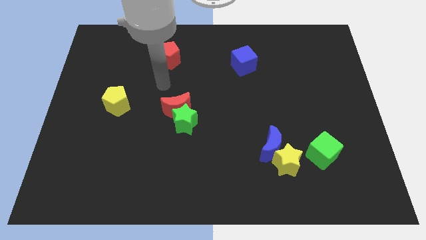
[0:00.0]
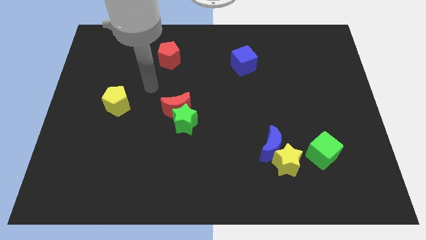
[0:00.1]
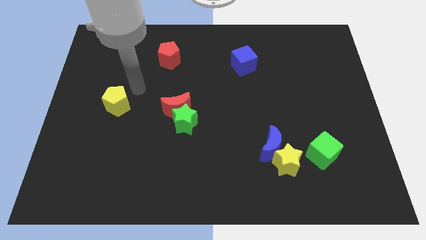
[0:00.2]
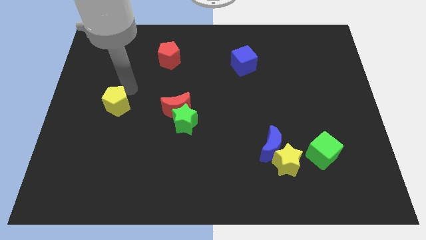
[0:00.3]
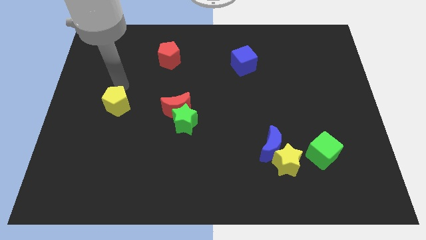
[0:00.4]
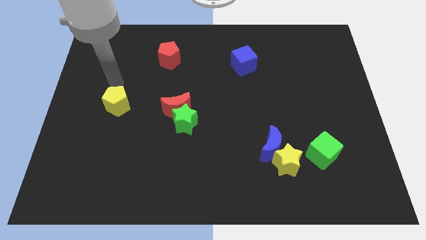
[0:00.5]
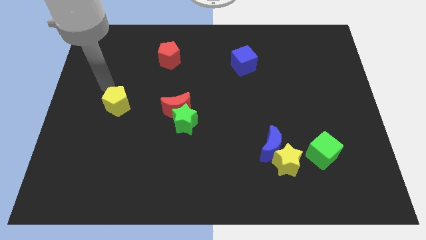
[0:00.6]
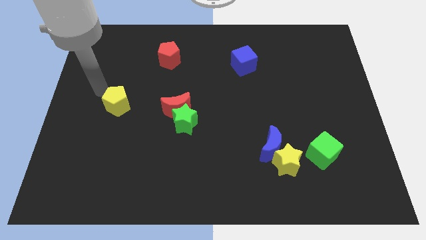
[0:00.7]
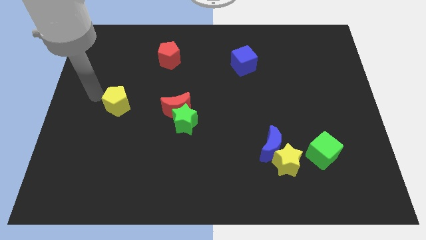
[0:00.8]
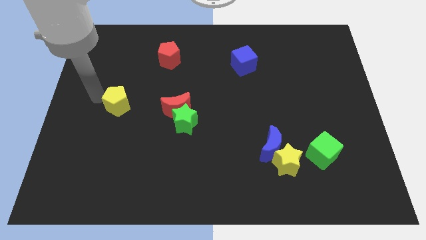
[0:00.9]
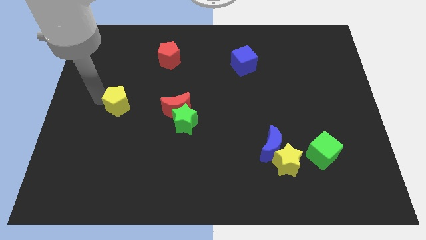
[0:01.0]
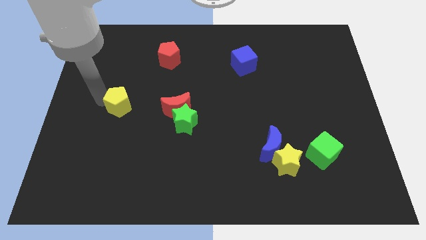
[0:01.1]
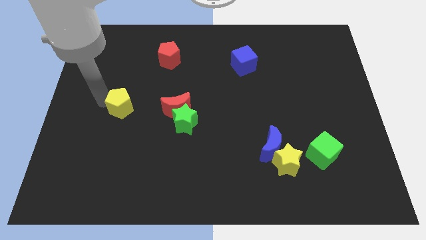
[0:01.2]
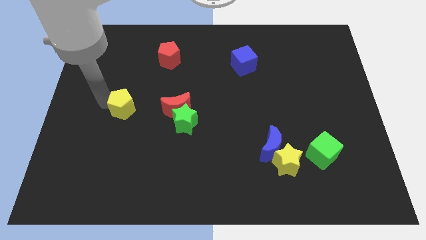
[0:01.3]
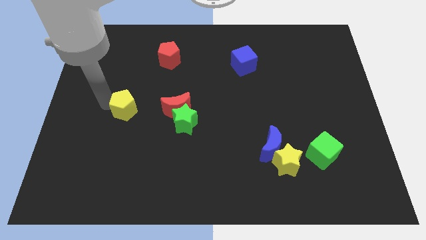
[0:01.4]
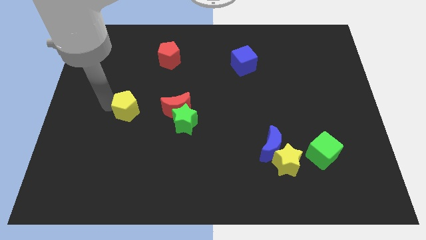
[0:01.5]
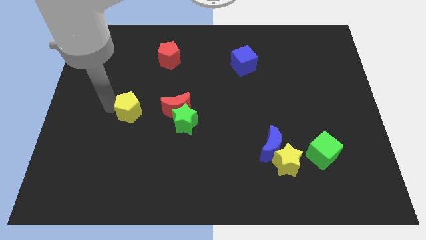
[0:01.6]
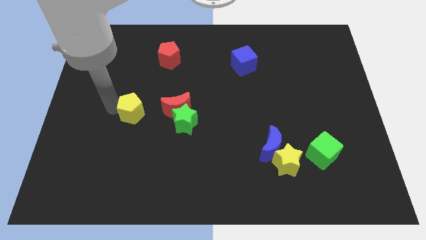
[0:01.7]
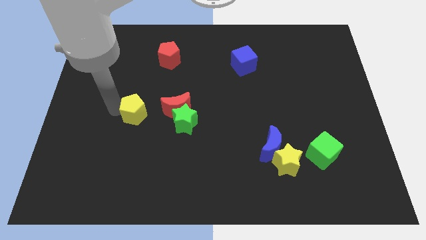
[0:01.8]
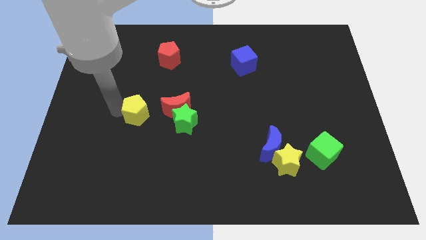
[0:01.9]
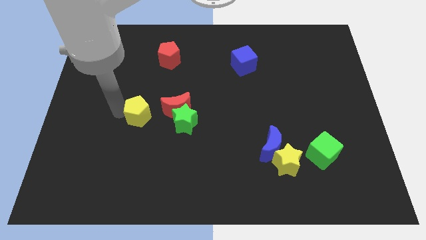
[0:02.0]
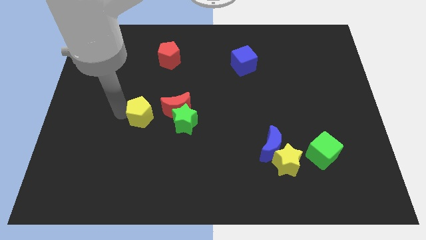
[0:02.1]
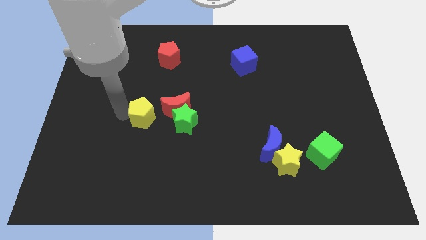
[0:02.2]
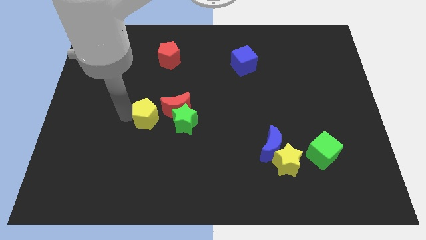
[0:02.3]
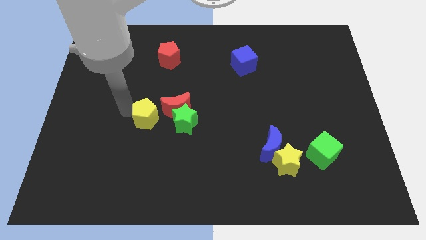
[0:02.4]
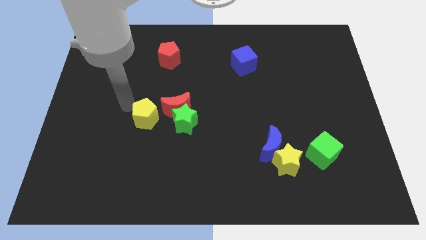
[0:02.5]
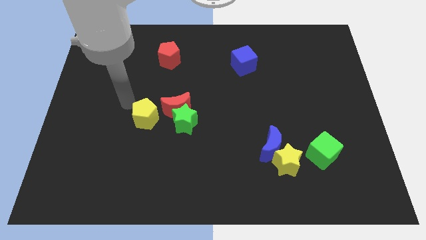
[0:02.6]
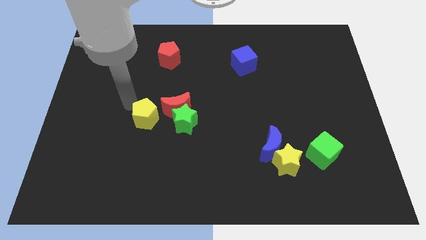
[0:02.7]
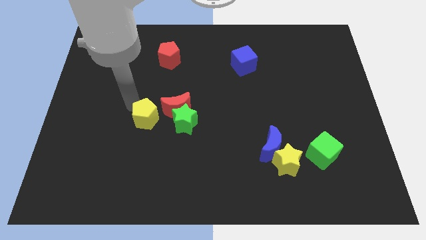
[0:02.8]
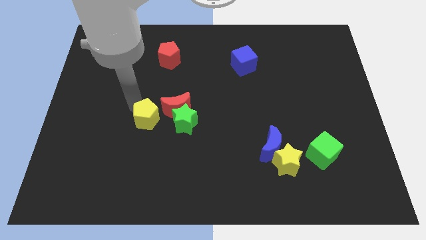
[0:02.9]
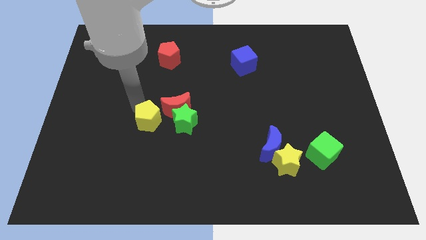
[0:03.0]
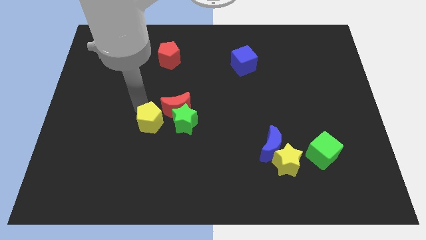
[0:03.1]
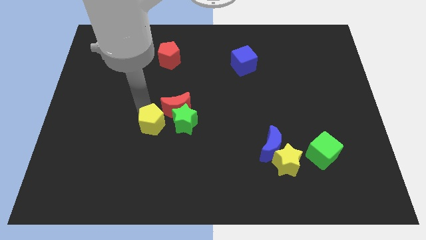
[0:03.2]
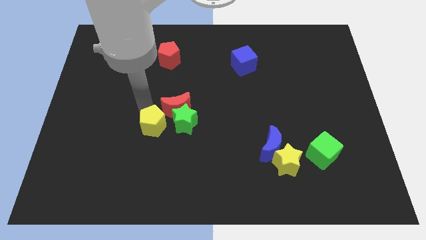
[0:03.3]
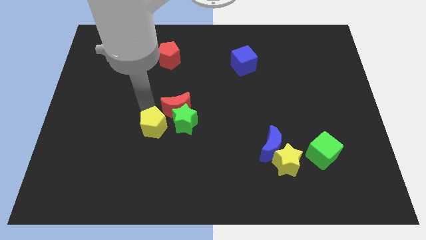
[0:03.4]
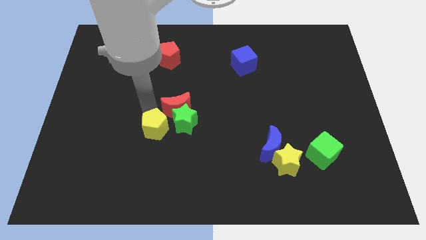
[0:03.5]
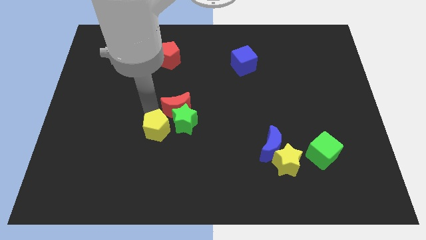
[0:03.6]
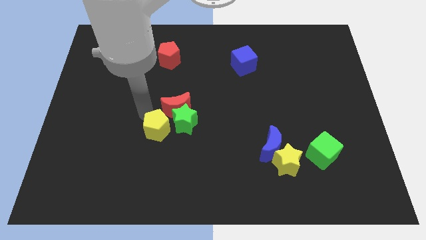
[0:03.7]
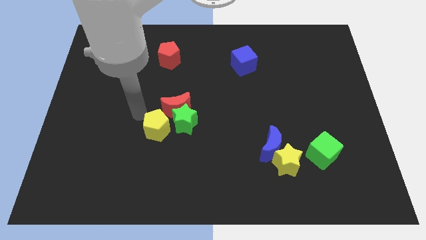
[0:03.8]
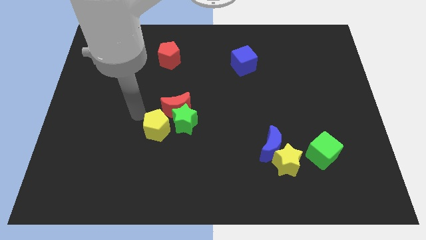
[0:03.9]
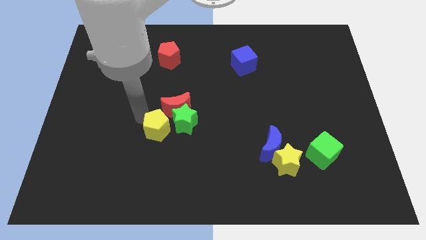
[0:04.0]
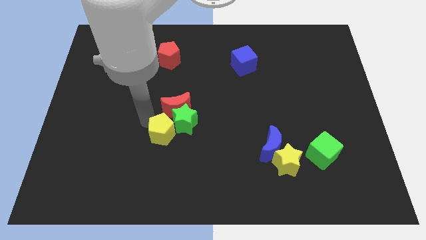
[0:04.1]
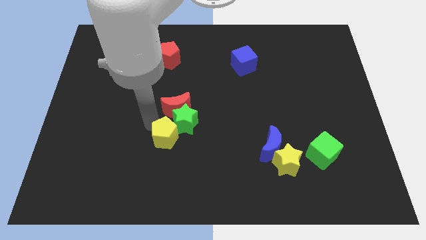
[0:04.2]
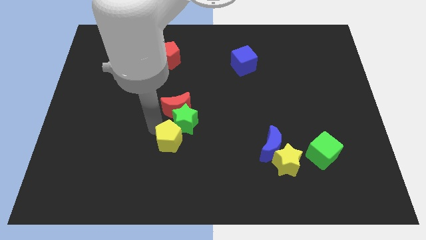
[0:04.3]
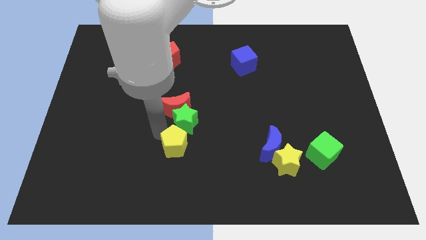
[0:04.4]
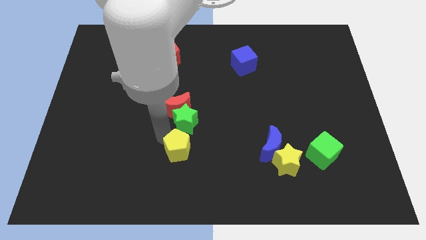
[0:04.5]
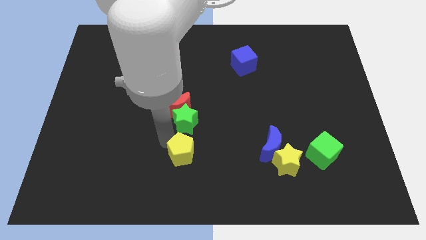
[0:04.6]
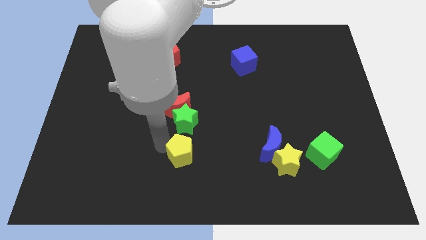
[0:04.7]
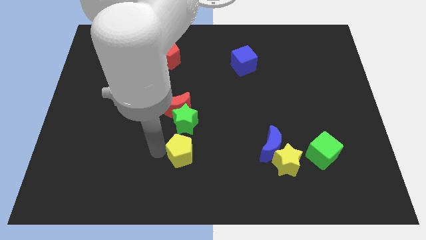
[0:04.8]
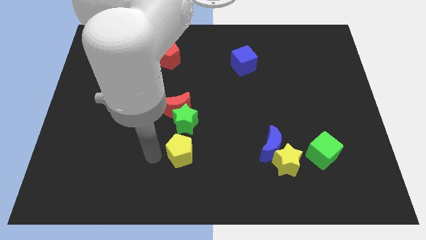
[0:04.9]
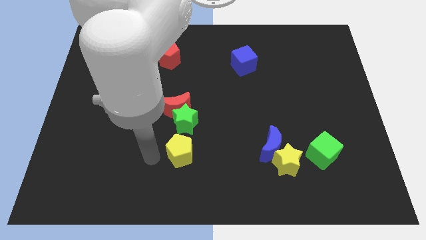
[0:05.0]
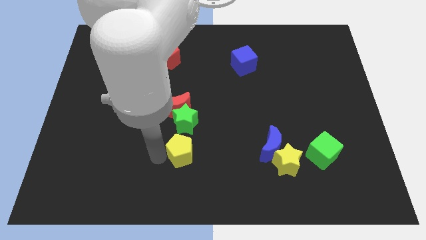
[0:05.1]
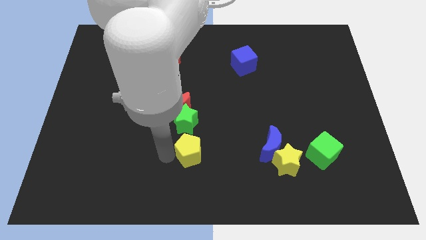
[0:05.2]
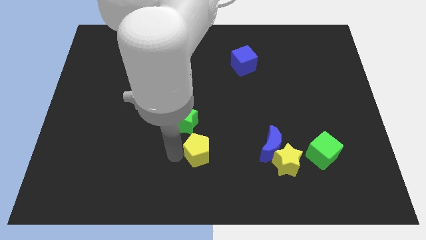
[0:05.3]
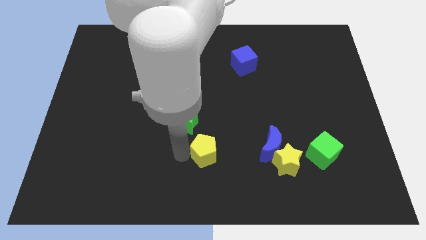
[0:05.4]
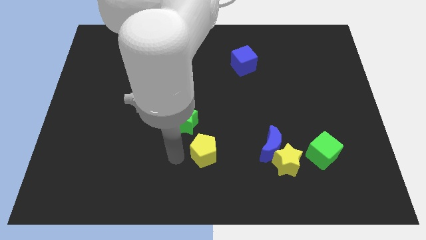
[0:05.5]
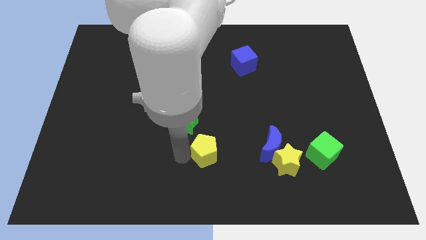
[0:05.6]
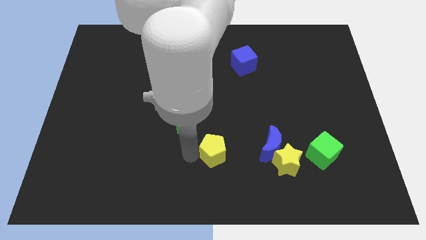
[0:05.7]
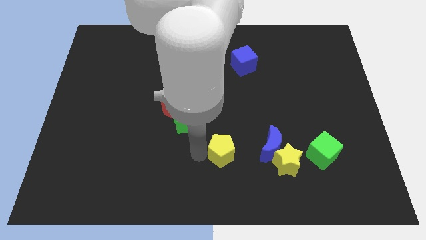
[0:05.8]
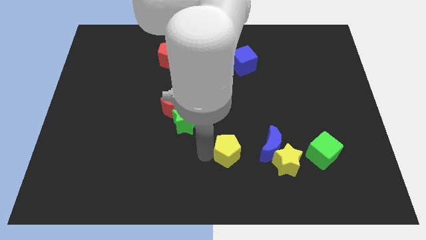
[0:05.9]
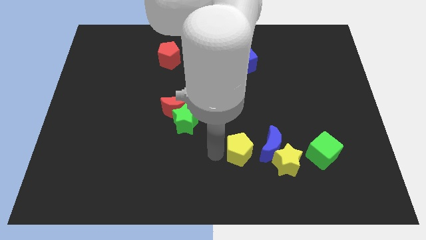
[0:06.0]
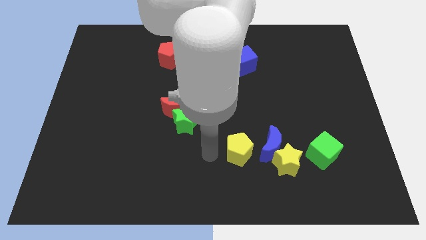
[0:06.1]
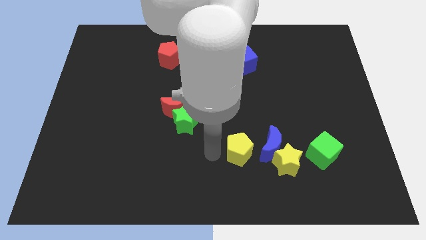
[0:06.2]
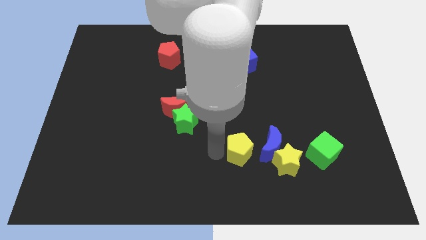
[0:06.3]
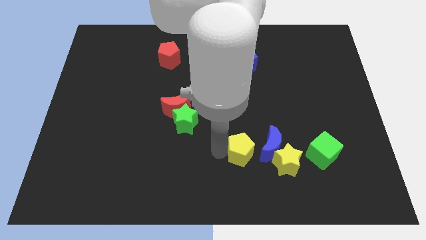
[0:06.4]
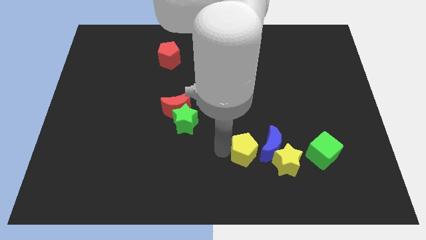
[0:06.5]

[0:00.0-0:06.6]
put the yellow pentagon close to the blue moon

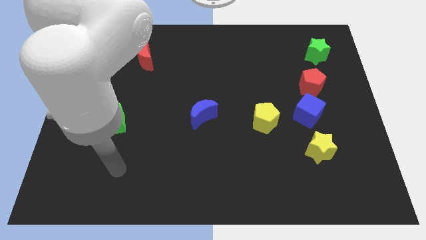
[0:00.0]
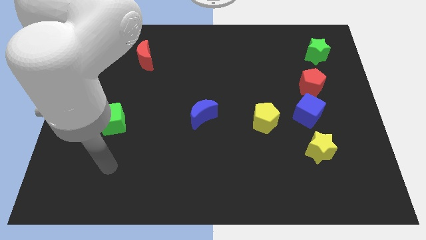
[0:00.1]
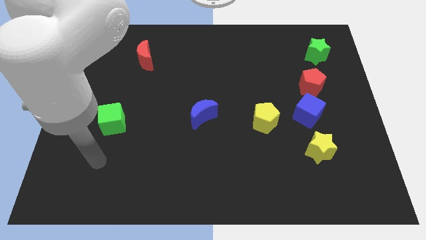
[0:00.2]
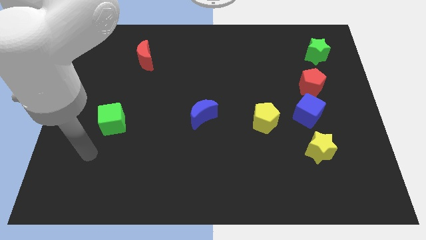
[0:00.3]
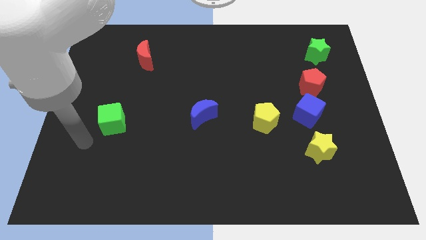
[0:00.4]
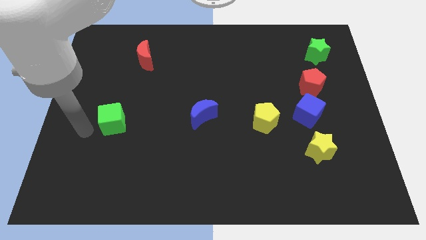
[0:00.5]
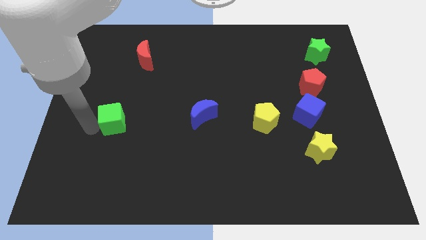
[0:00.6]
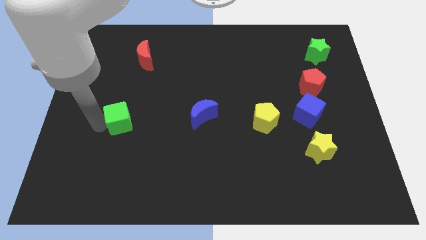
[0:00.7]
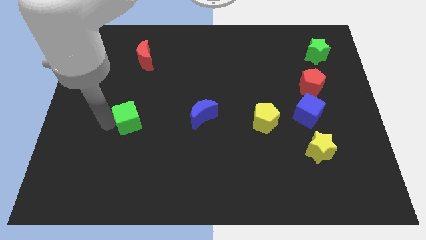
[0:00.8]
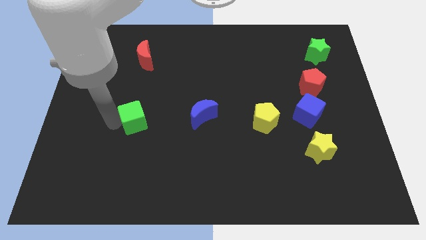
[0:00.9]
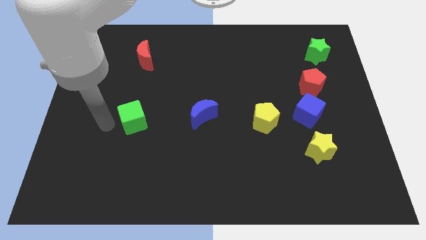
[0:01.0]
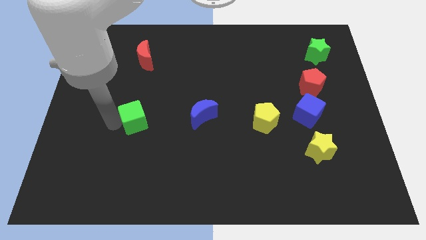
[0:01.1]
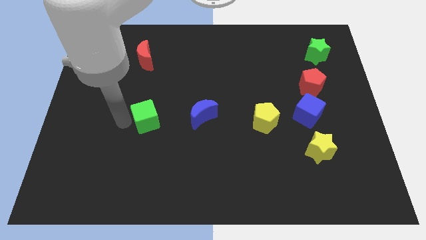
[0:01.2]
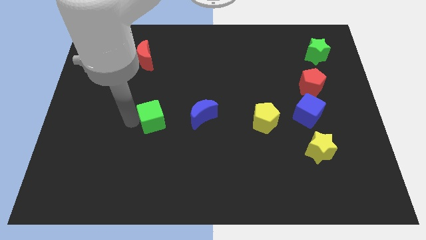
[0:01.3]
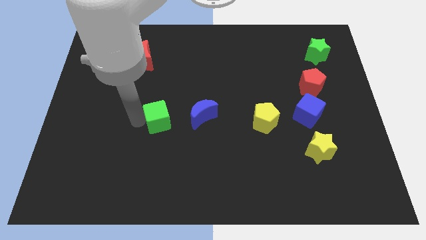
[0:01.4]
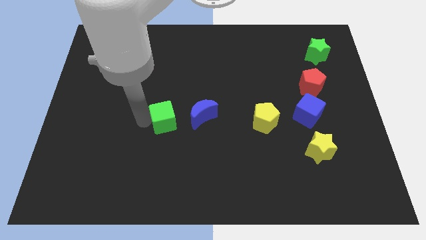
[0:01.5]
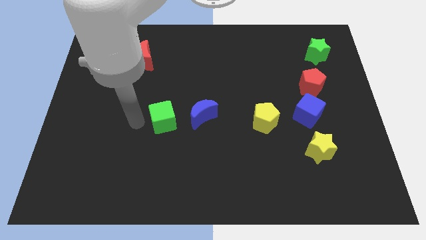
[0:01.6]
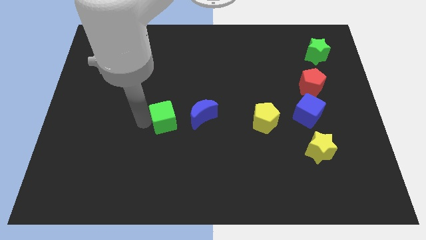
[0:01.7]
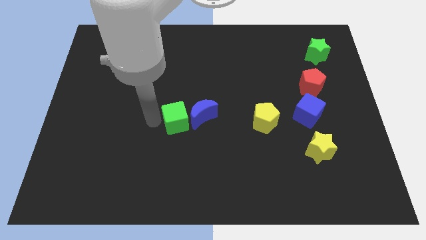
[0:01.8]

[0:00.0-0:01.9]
move the green cube to the blue moon
